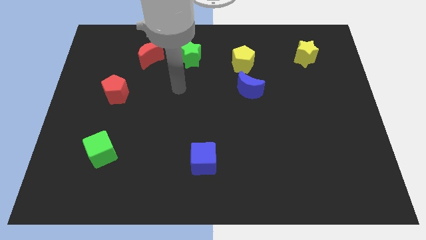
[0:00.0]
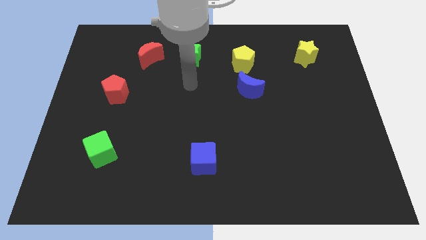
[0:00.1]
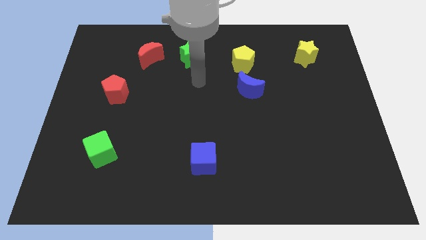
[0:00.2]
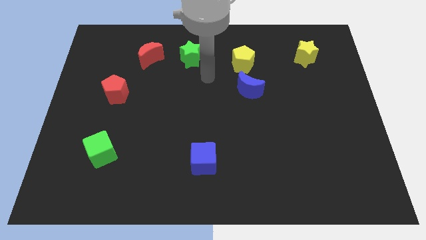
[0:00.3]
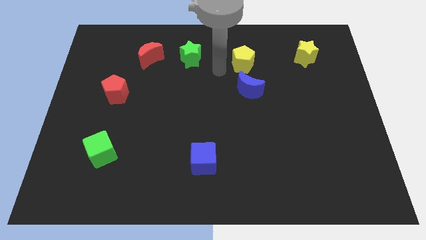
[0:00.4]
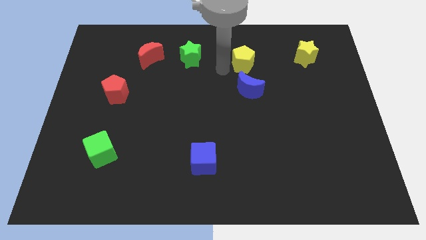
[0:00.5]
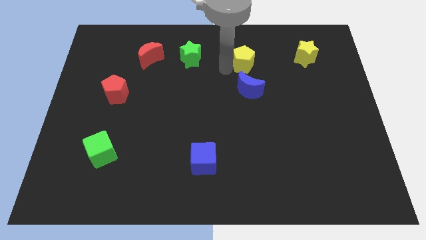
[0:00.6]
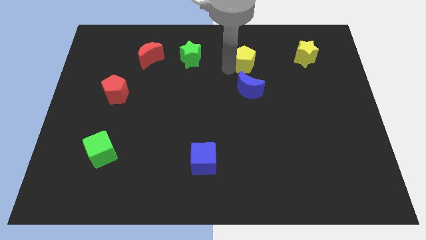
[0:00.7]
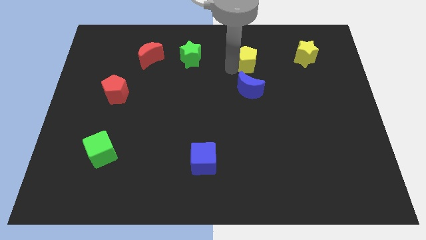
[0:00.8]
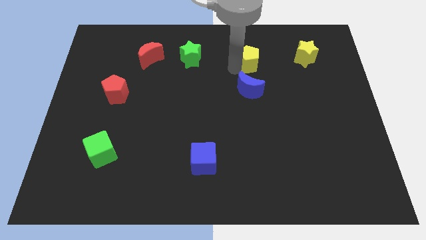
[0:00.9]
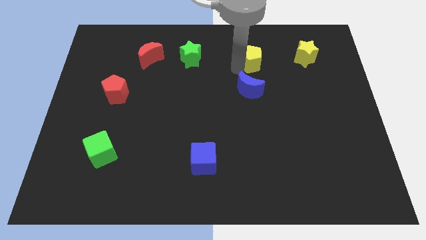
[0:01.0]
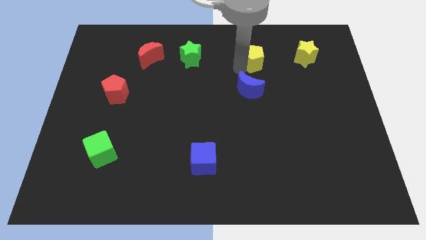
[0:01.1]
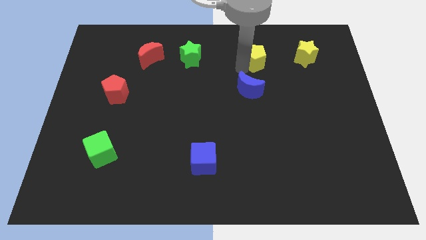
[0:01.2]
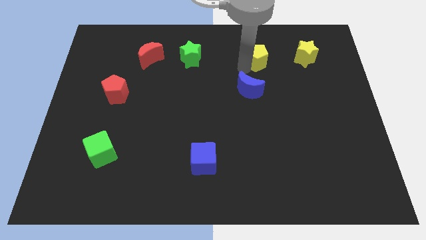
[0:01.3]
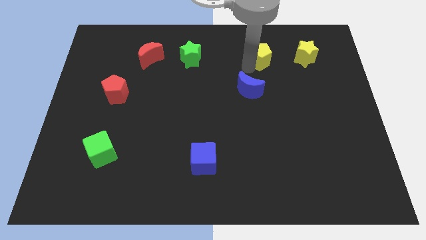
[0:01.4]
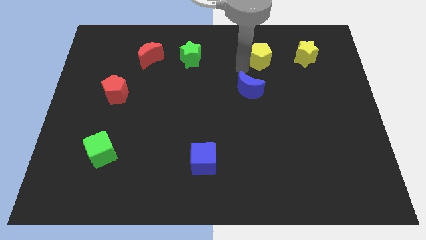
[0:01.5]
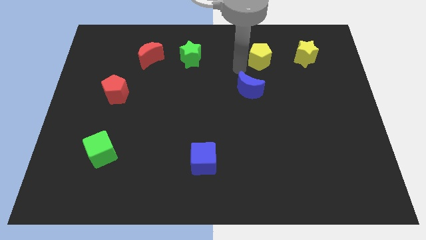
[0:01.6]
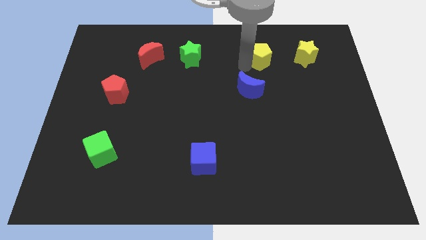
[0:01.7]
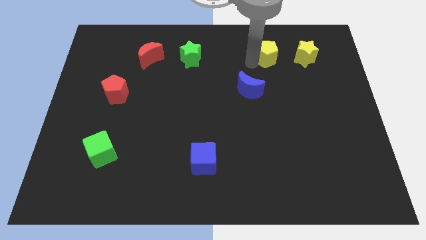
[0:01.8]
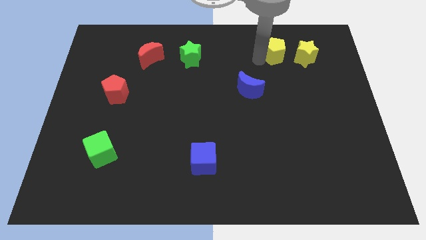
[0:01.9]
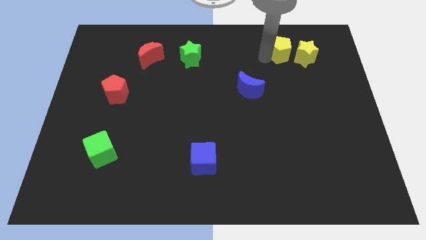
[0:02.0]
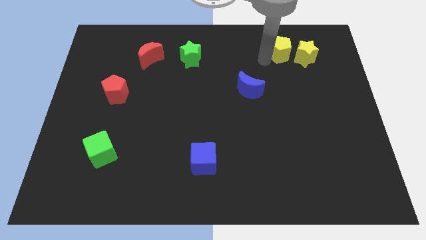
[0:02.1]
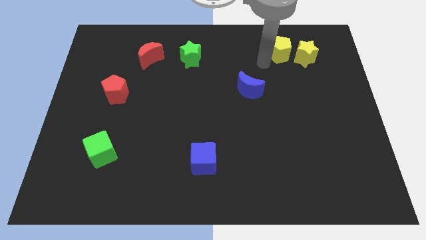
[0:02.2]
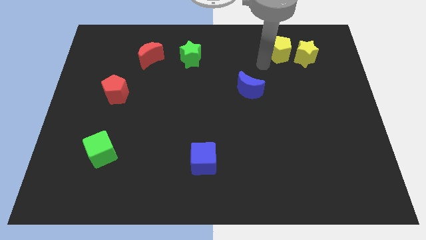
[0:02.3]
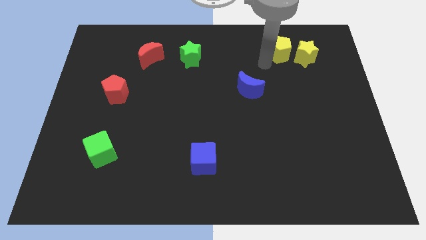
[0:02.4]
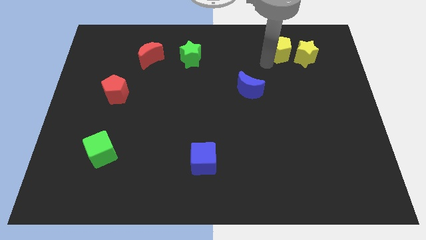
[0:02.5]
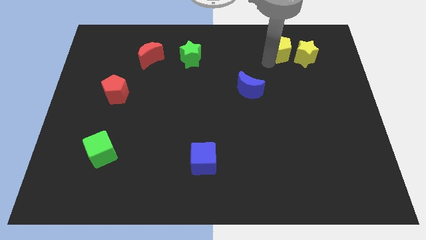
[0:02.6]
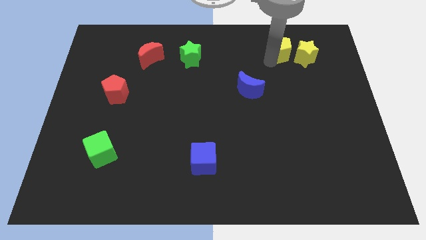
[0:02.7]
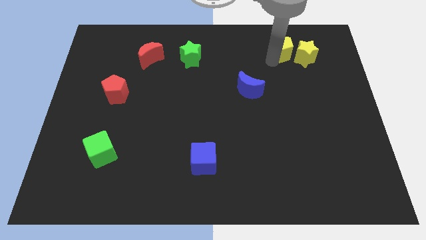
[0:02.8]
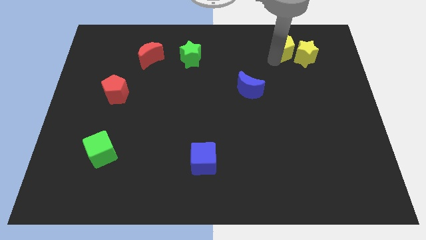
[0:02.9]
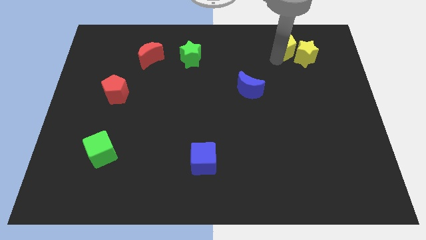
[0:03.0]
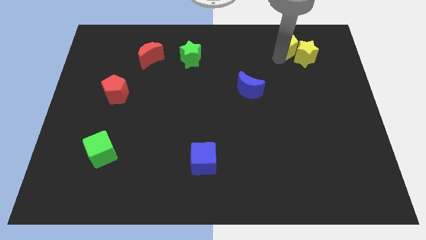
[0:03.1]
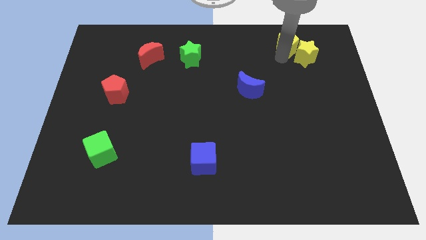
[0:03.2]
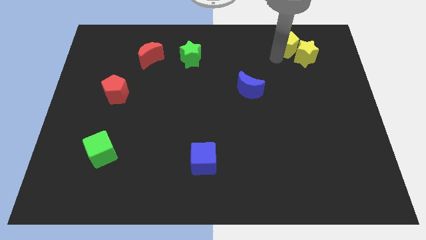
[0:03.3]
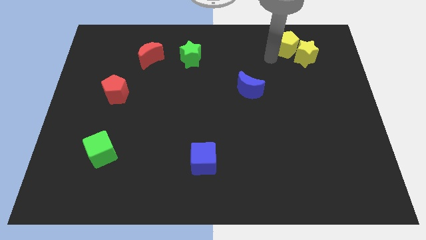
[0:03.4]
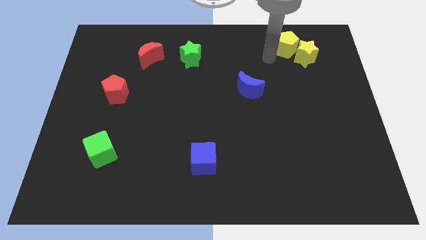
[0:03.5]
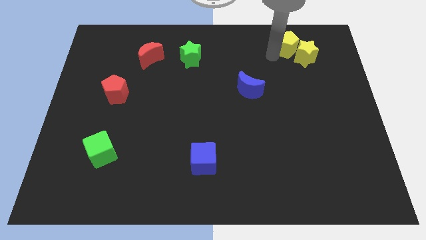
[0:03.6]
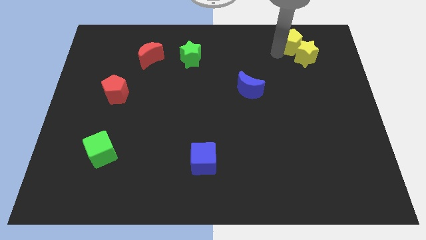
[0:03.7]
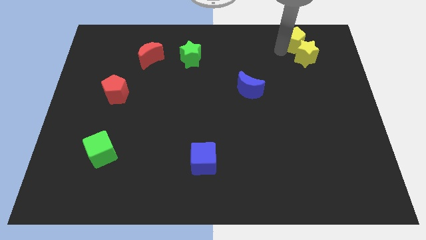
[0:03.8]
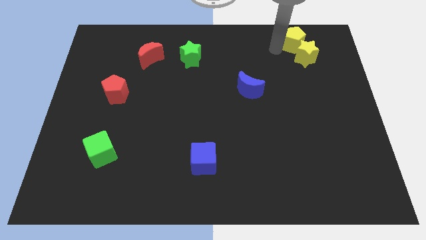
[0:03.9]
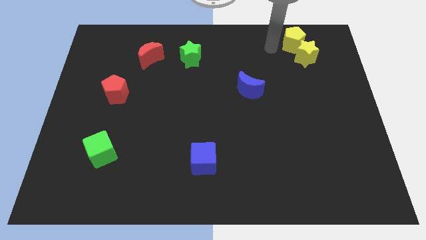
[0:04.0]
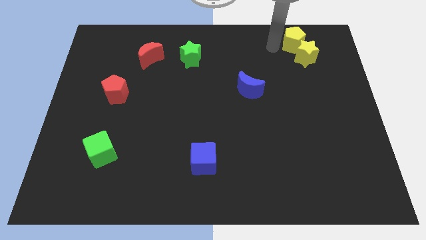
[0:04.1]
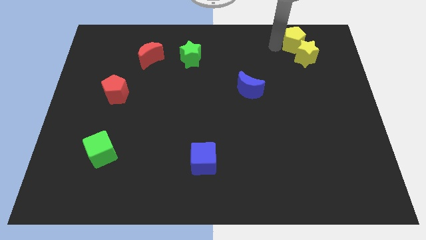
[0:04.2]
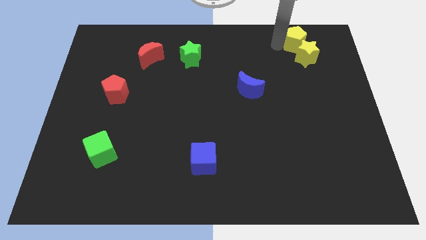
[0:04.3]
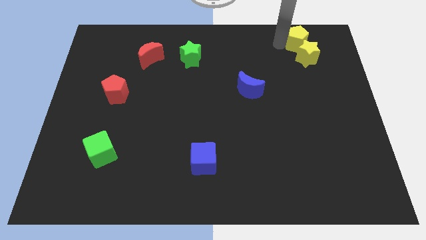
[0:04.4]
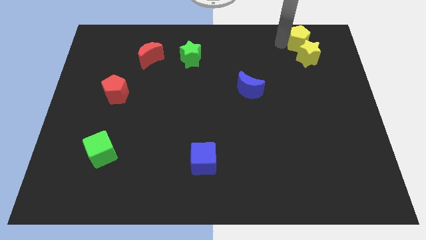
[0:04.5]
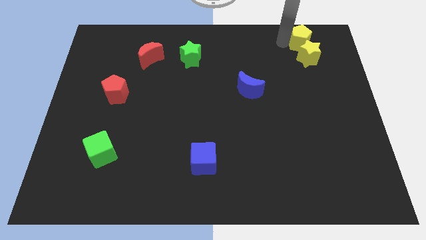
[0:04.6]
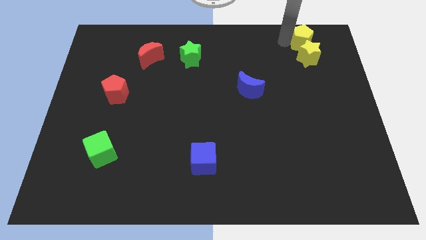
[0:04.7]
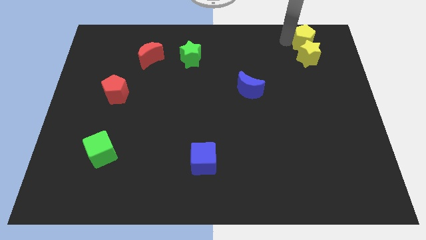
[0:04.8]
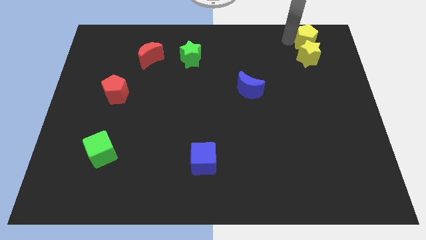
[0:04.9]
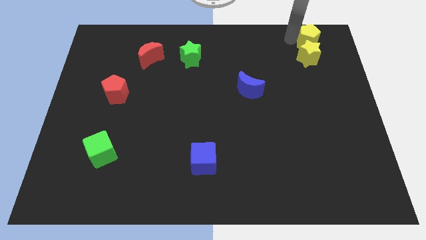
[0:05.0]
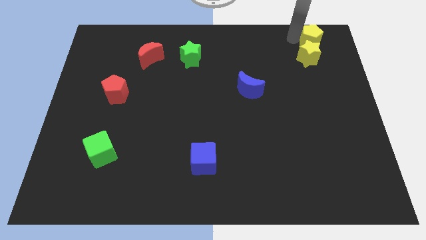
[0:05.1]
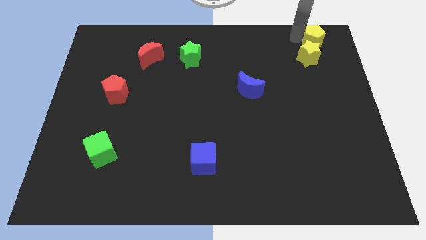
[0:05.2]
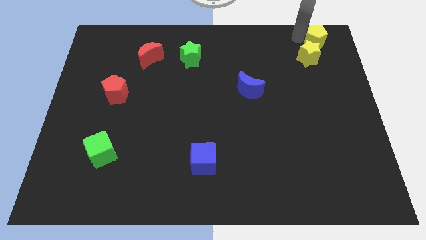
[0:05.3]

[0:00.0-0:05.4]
slide the yellow pentagon to the upper right corner

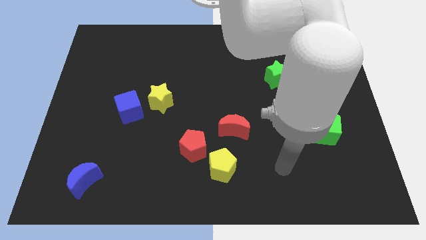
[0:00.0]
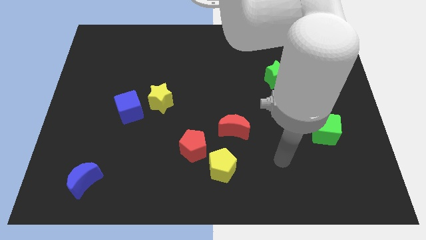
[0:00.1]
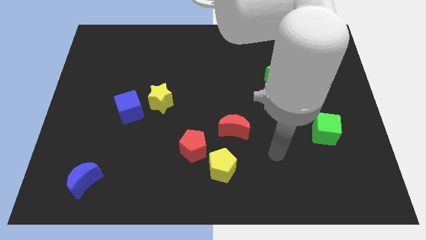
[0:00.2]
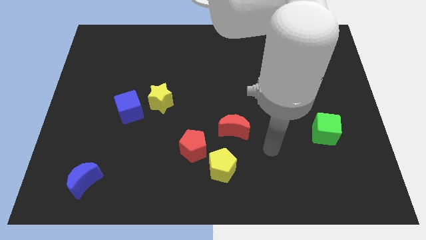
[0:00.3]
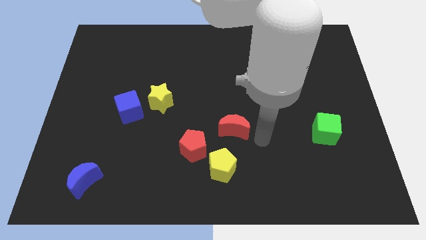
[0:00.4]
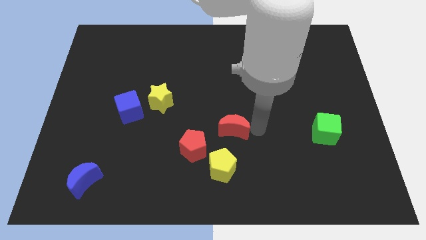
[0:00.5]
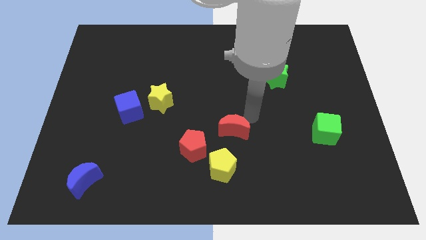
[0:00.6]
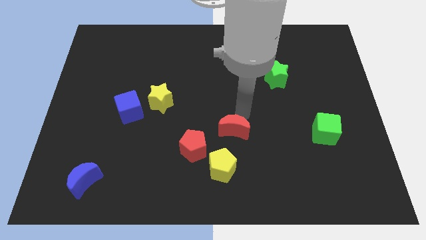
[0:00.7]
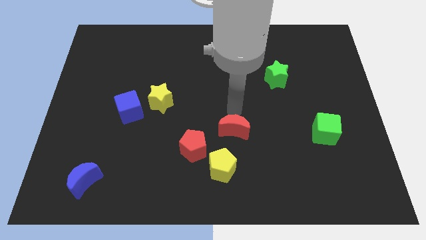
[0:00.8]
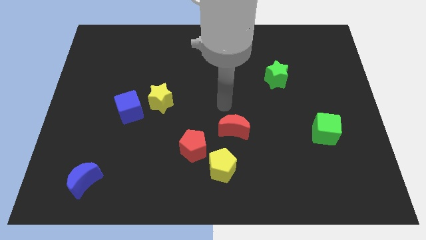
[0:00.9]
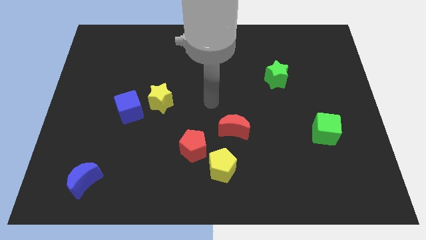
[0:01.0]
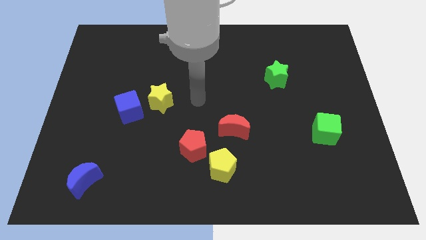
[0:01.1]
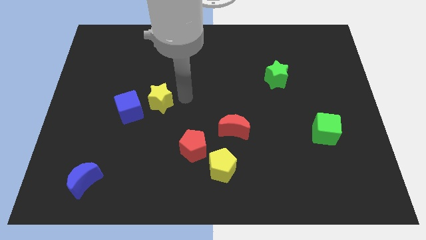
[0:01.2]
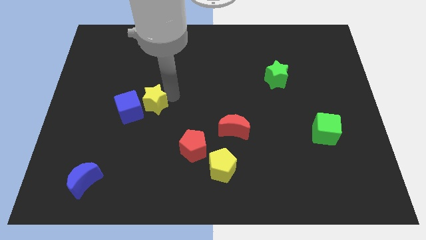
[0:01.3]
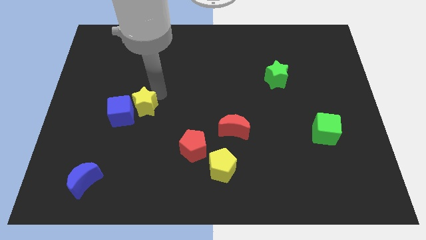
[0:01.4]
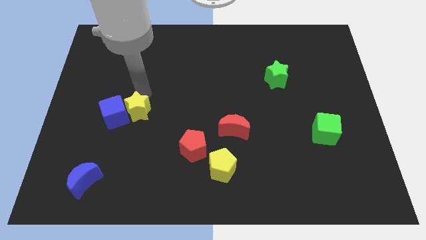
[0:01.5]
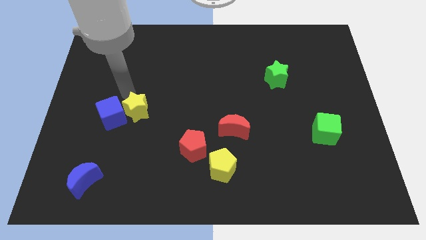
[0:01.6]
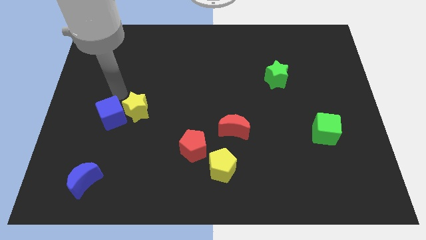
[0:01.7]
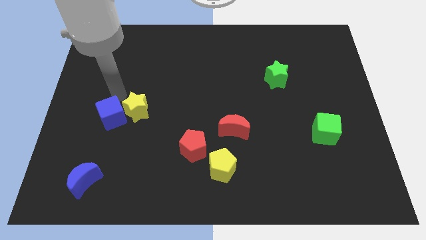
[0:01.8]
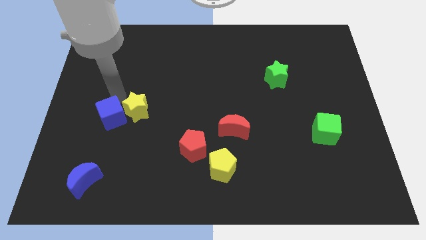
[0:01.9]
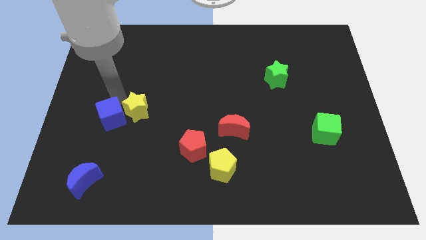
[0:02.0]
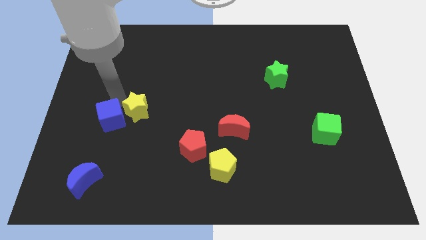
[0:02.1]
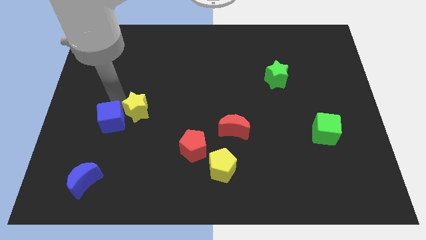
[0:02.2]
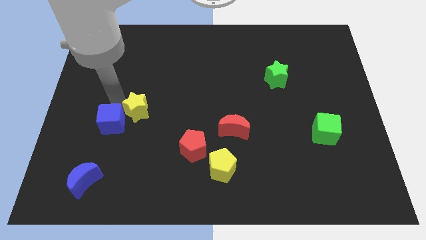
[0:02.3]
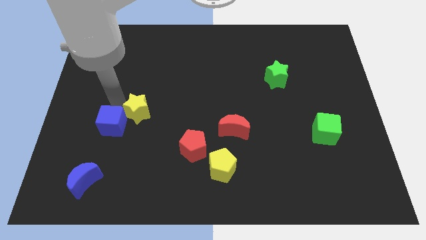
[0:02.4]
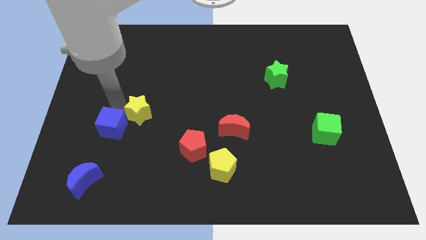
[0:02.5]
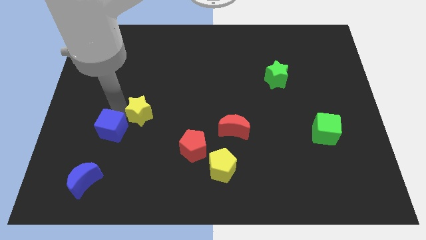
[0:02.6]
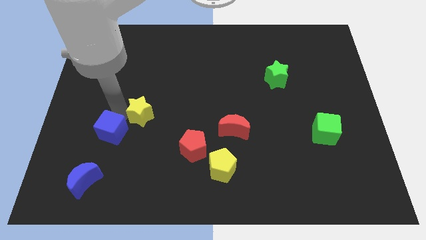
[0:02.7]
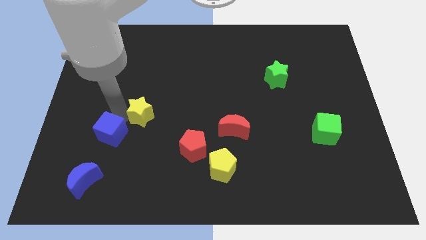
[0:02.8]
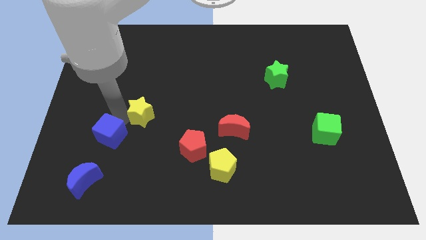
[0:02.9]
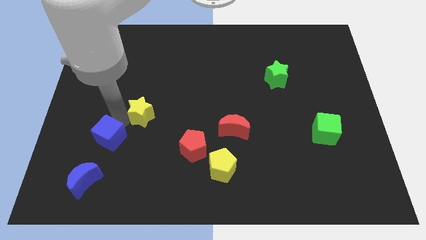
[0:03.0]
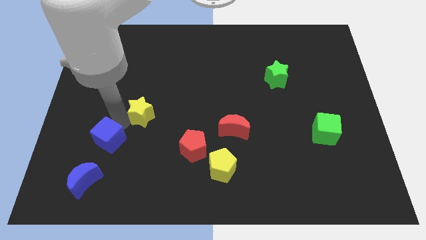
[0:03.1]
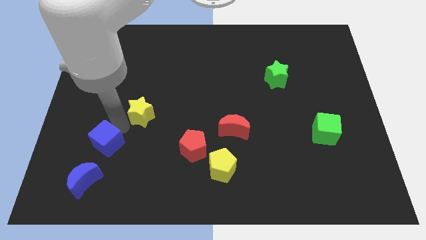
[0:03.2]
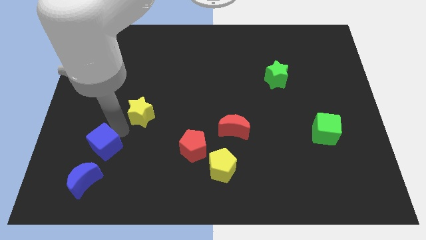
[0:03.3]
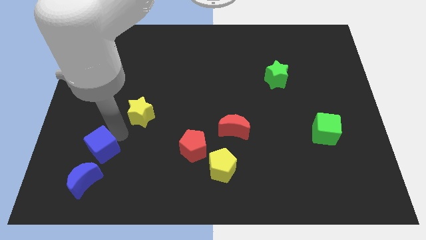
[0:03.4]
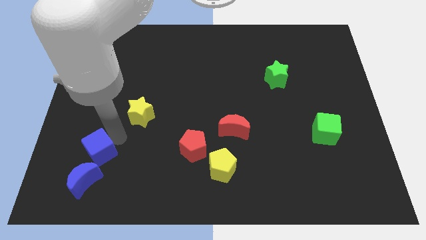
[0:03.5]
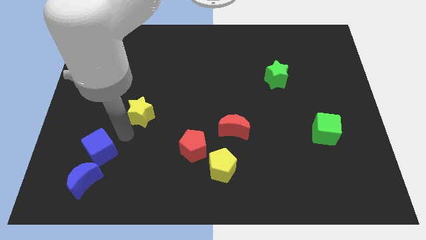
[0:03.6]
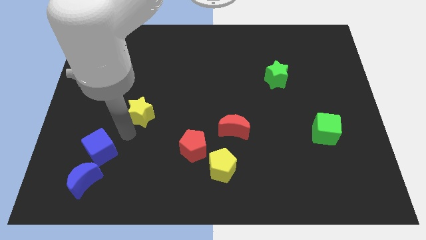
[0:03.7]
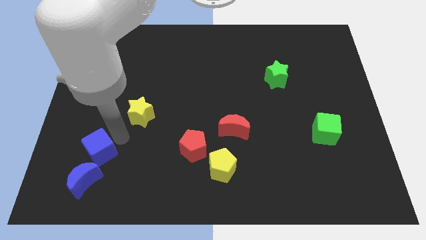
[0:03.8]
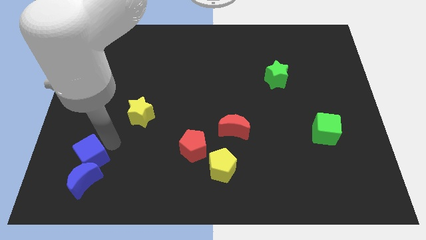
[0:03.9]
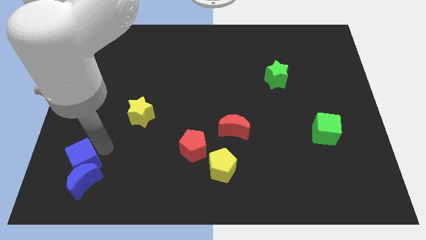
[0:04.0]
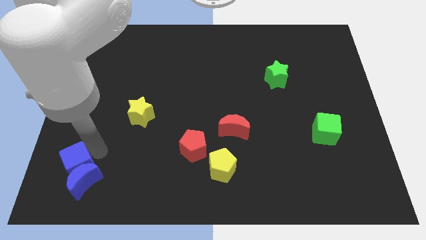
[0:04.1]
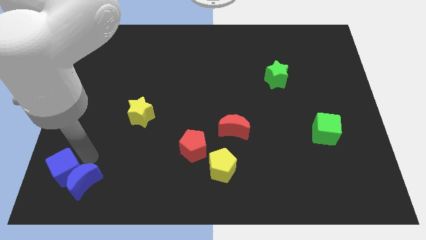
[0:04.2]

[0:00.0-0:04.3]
push the blue cube to the bottom left
